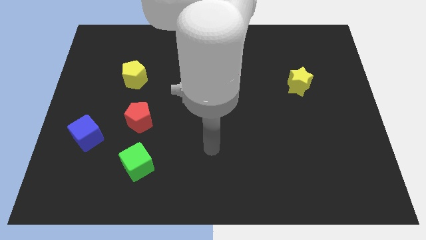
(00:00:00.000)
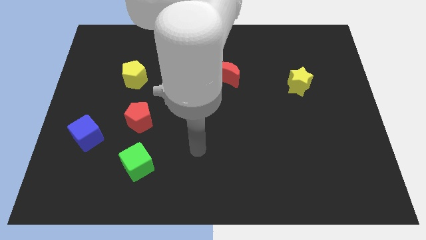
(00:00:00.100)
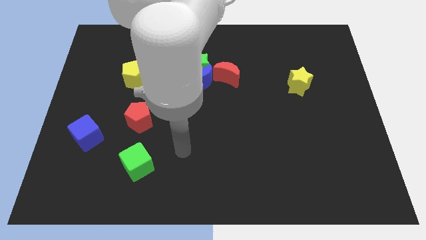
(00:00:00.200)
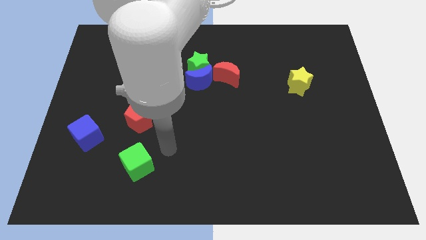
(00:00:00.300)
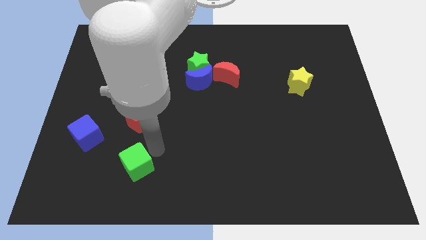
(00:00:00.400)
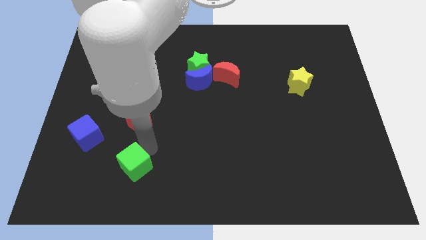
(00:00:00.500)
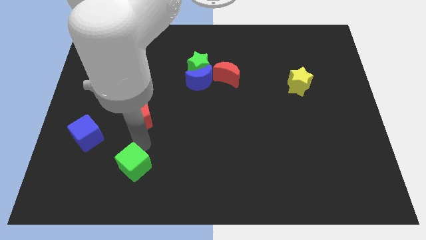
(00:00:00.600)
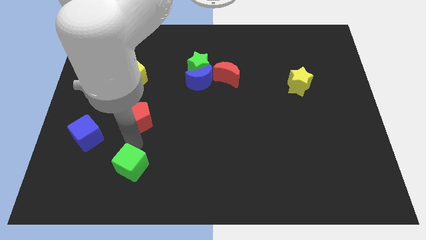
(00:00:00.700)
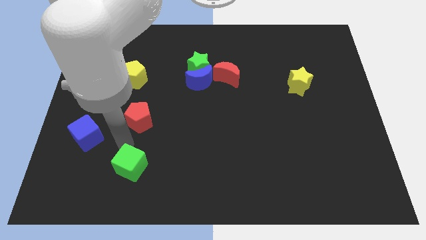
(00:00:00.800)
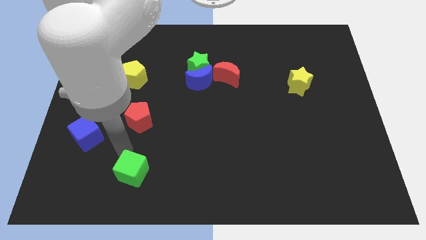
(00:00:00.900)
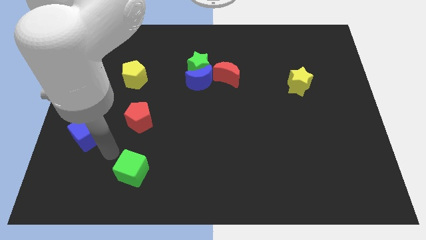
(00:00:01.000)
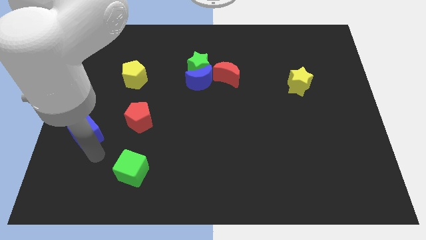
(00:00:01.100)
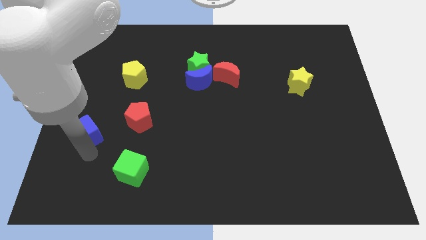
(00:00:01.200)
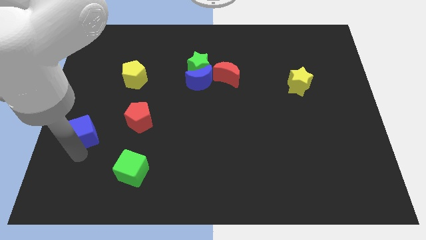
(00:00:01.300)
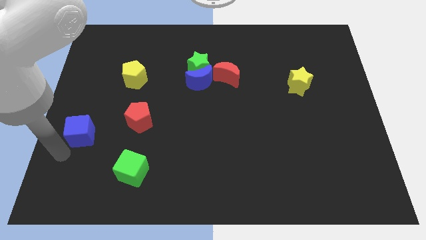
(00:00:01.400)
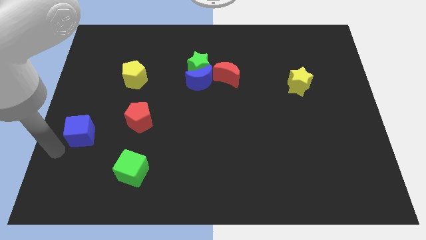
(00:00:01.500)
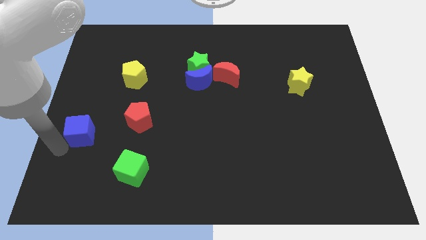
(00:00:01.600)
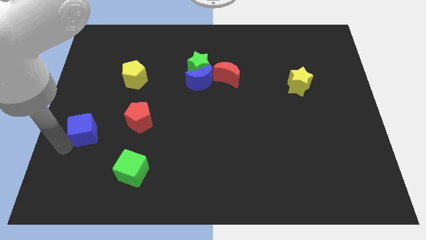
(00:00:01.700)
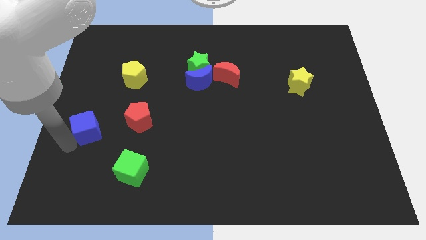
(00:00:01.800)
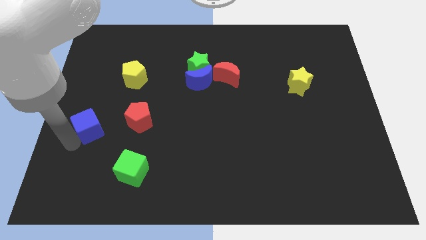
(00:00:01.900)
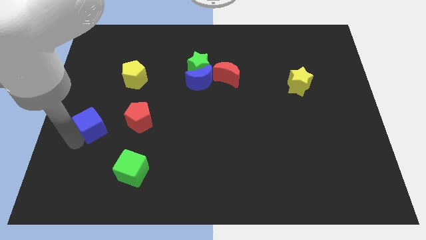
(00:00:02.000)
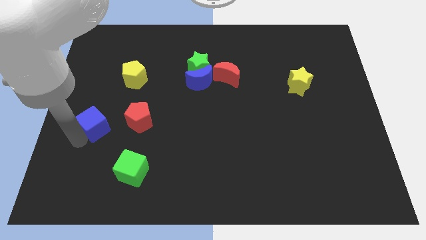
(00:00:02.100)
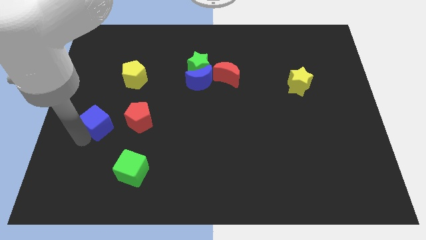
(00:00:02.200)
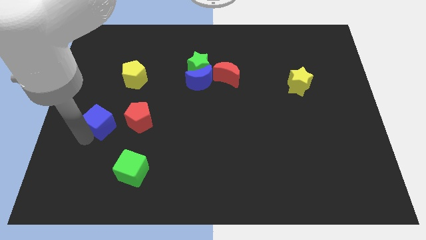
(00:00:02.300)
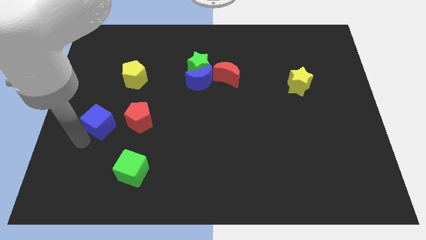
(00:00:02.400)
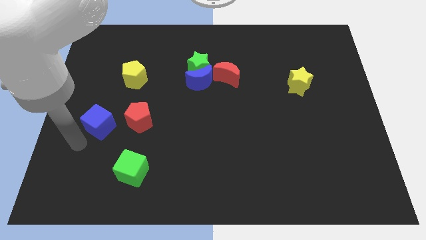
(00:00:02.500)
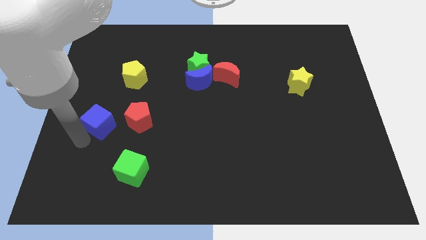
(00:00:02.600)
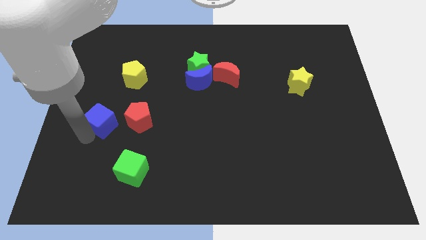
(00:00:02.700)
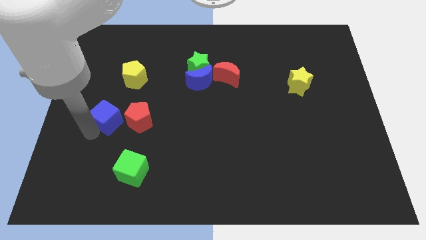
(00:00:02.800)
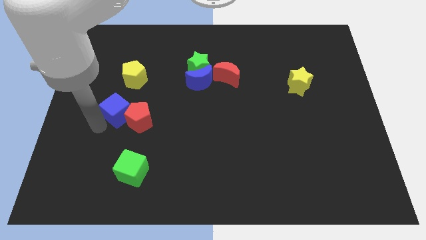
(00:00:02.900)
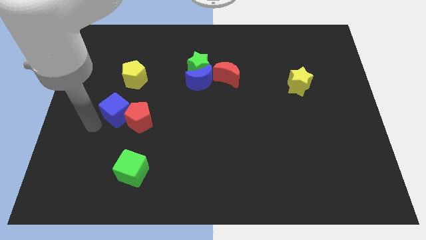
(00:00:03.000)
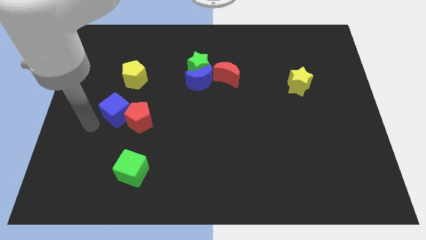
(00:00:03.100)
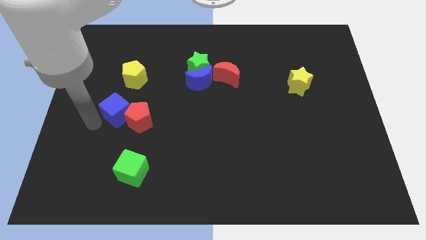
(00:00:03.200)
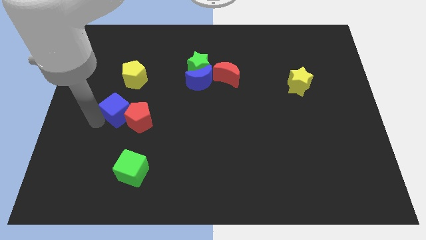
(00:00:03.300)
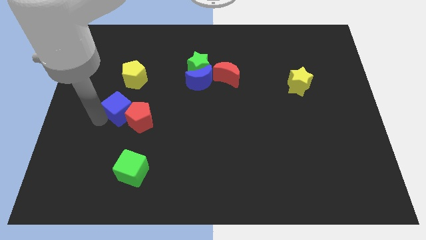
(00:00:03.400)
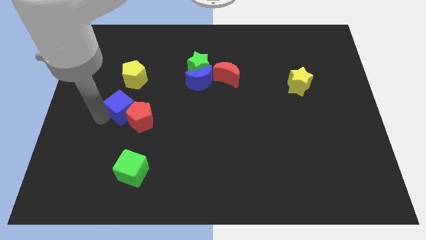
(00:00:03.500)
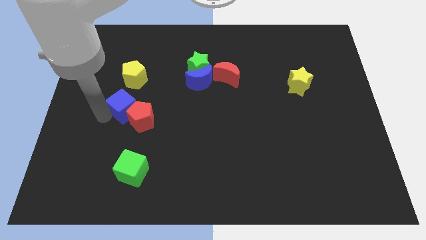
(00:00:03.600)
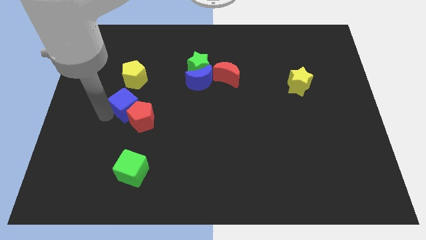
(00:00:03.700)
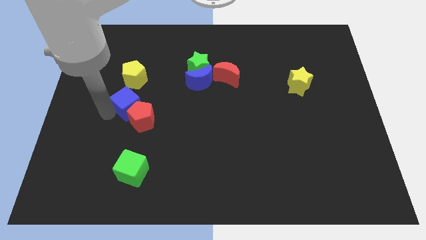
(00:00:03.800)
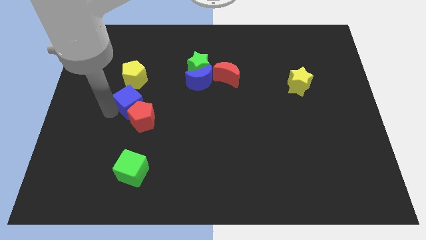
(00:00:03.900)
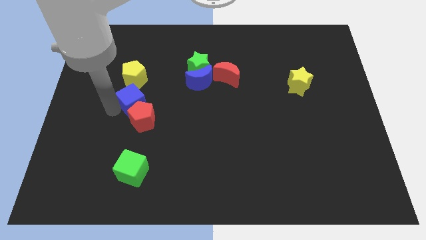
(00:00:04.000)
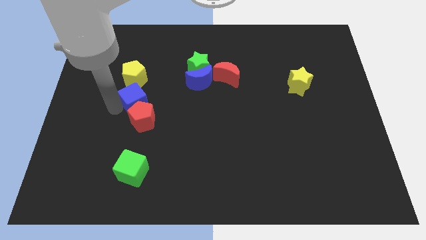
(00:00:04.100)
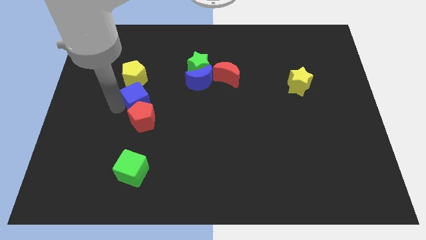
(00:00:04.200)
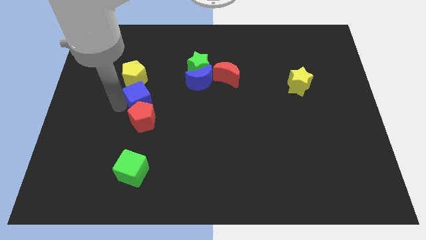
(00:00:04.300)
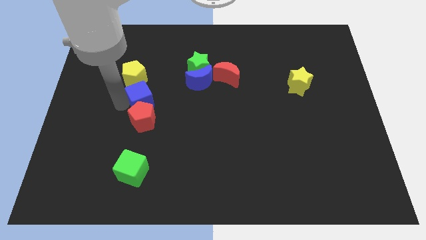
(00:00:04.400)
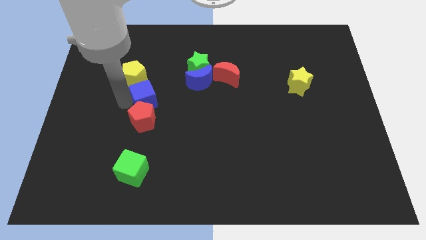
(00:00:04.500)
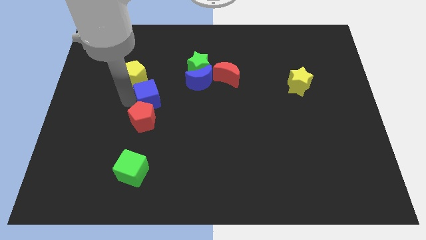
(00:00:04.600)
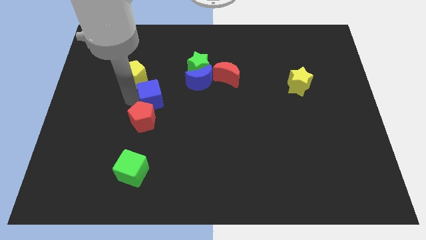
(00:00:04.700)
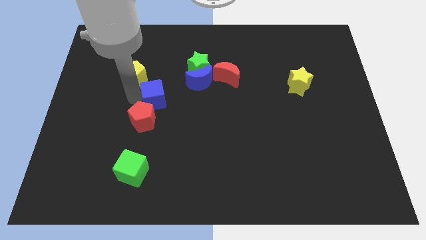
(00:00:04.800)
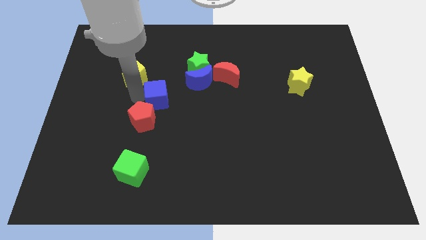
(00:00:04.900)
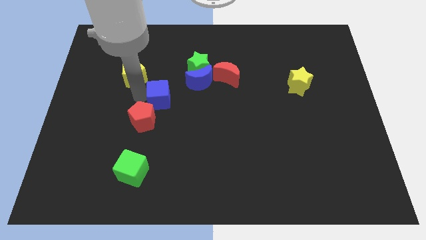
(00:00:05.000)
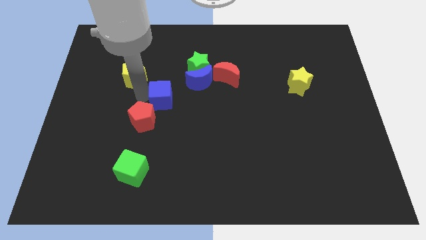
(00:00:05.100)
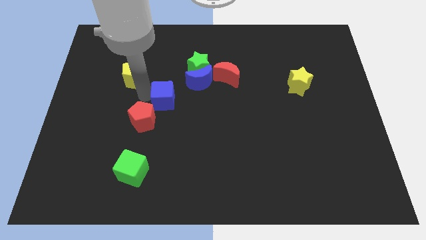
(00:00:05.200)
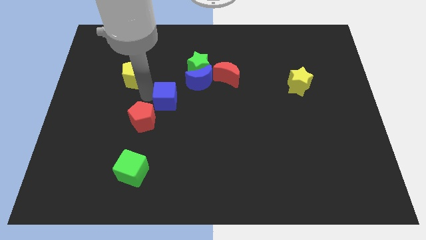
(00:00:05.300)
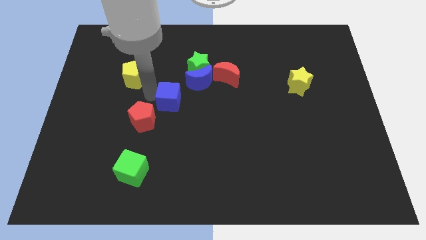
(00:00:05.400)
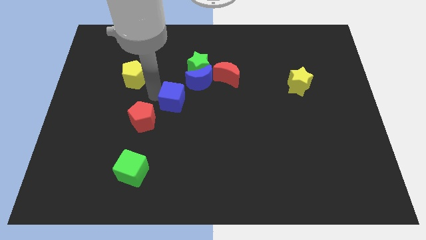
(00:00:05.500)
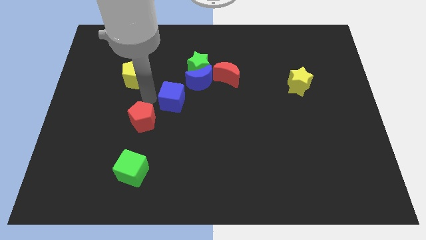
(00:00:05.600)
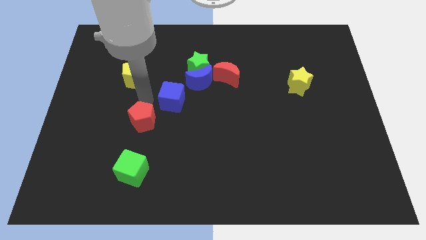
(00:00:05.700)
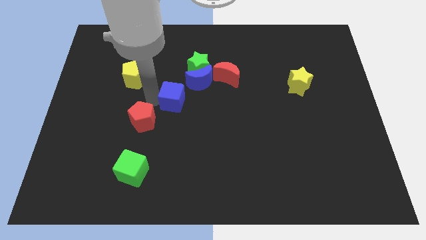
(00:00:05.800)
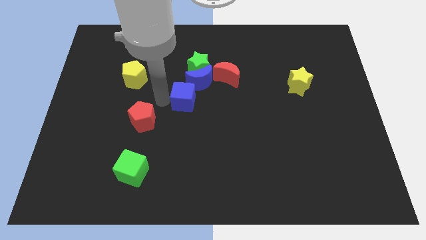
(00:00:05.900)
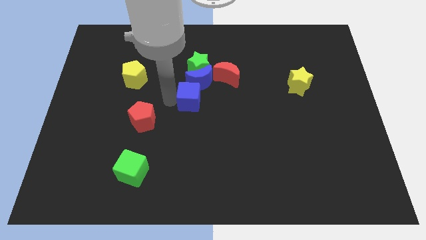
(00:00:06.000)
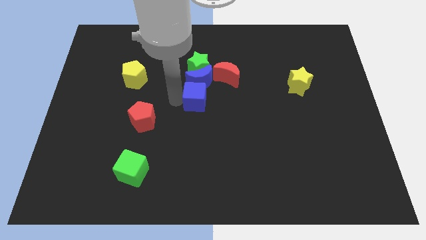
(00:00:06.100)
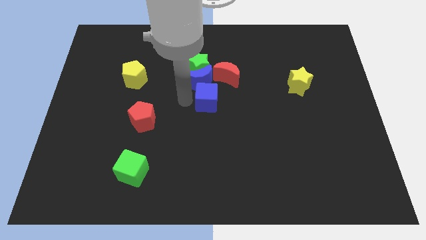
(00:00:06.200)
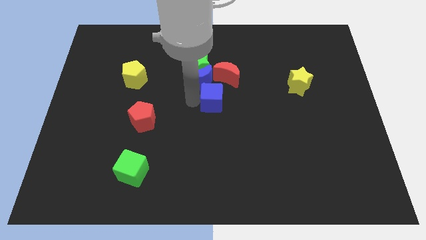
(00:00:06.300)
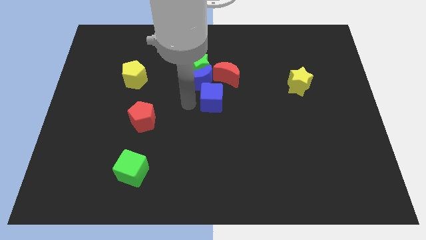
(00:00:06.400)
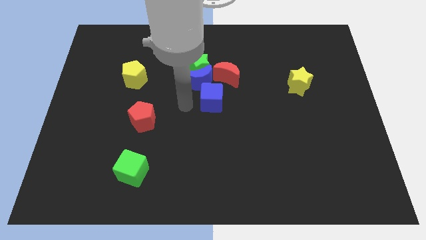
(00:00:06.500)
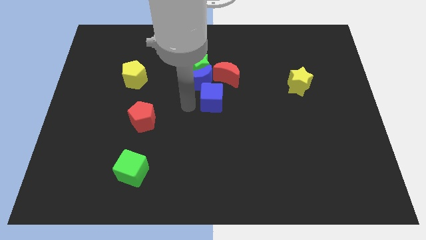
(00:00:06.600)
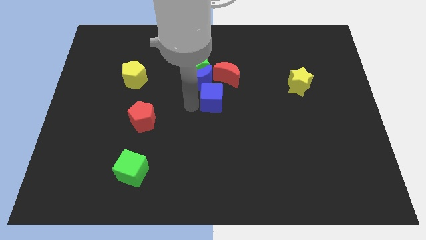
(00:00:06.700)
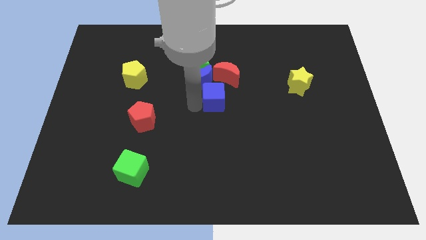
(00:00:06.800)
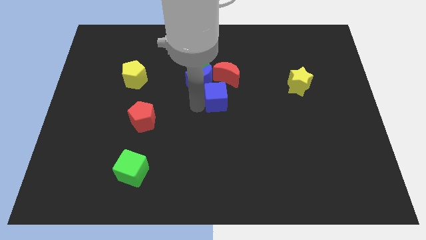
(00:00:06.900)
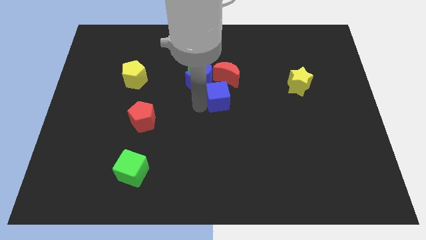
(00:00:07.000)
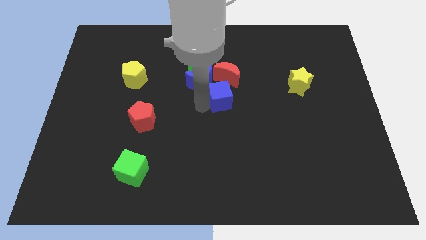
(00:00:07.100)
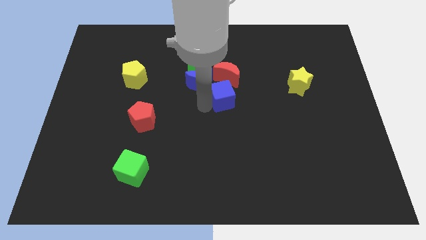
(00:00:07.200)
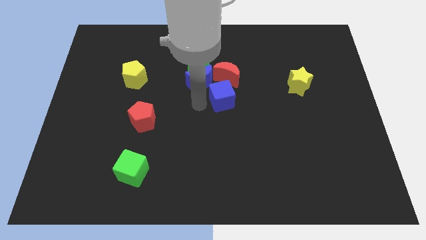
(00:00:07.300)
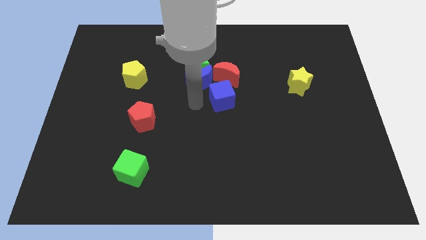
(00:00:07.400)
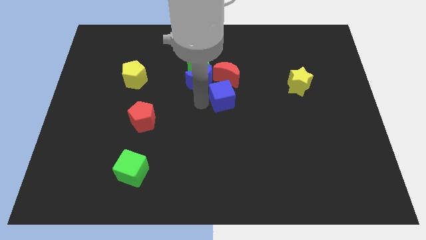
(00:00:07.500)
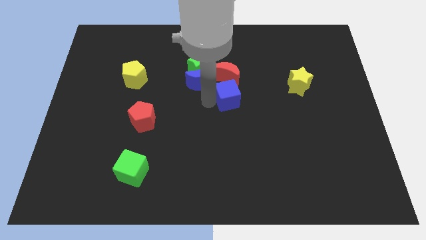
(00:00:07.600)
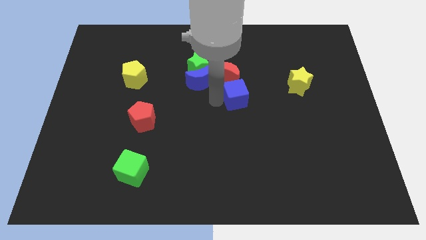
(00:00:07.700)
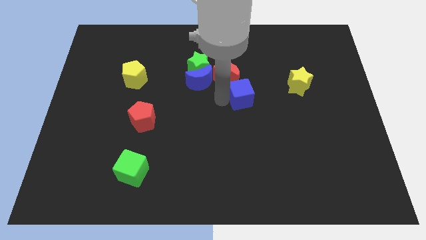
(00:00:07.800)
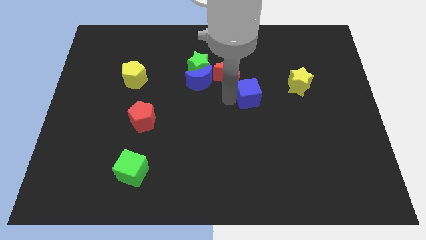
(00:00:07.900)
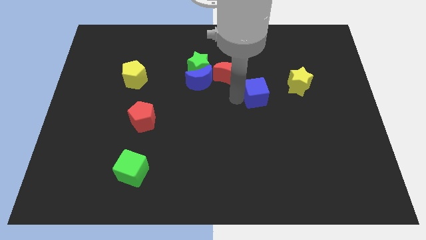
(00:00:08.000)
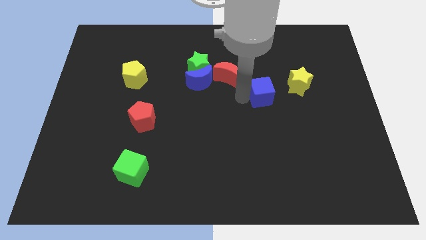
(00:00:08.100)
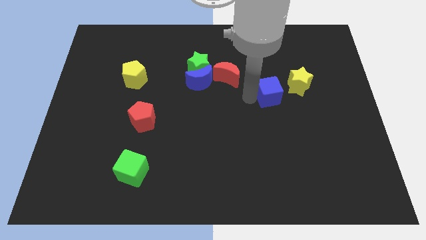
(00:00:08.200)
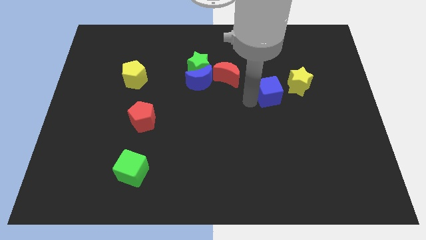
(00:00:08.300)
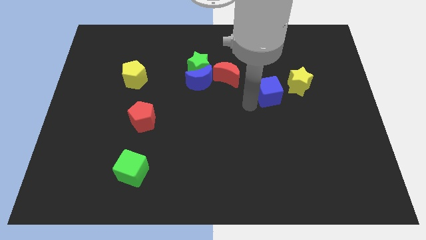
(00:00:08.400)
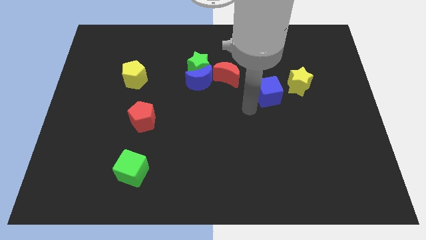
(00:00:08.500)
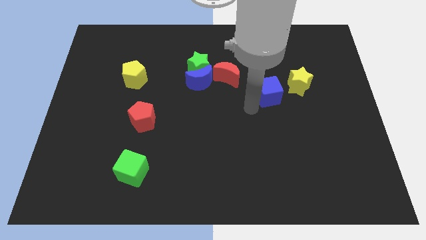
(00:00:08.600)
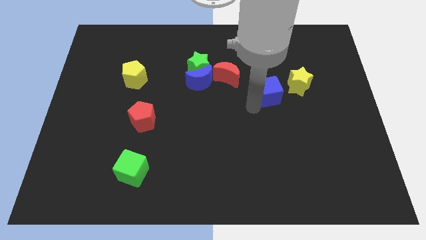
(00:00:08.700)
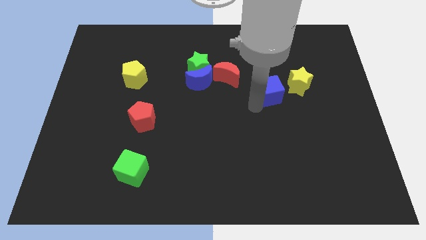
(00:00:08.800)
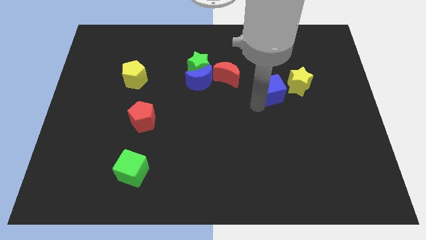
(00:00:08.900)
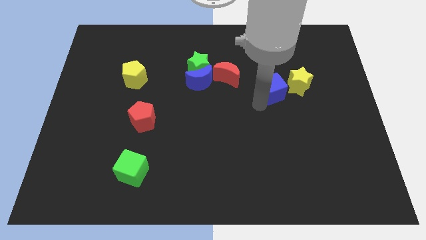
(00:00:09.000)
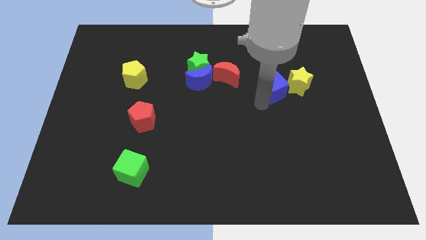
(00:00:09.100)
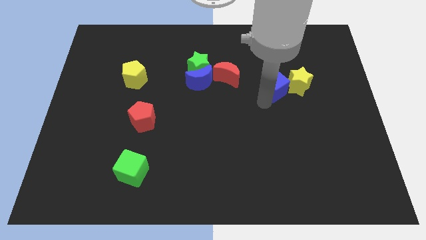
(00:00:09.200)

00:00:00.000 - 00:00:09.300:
slide the blue cube close to the yellow star
